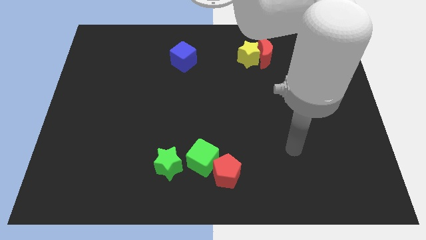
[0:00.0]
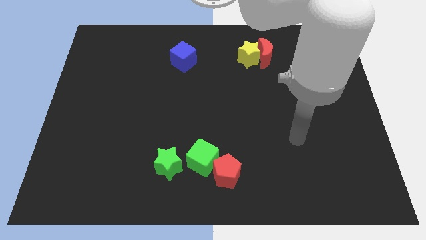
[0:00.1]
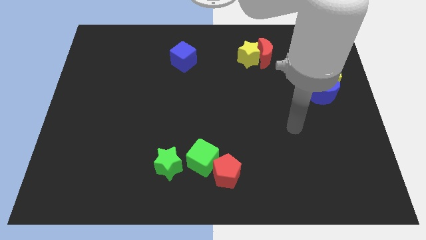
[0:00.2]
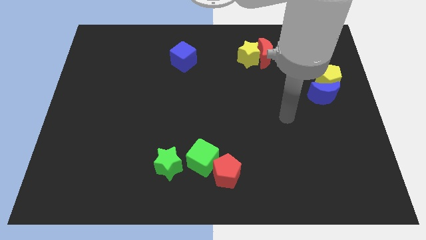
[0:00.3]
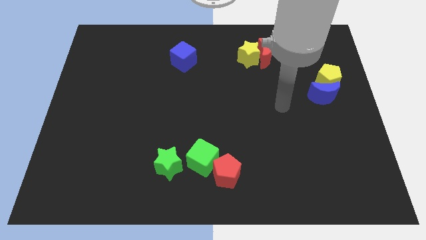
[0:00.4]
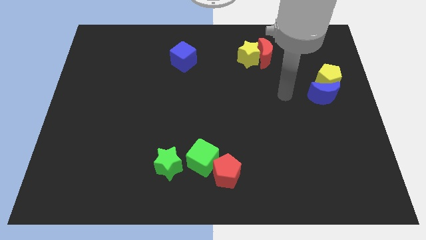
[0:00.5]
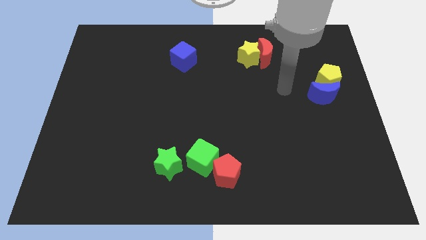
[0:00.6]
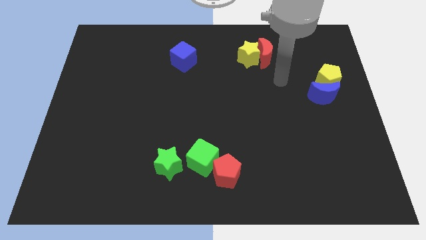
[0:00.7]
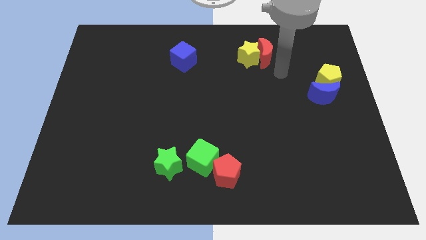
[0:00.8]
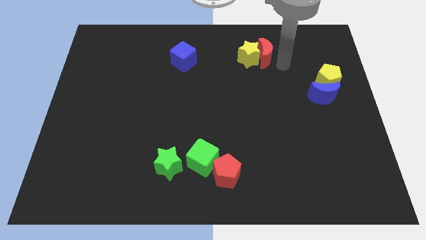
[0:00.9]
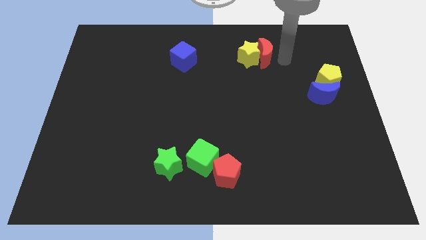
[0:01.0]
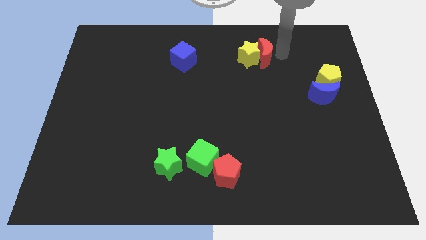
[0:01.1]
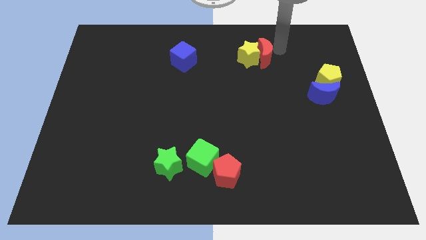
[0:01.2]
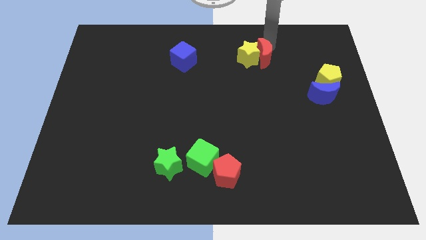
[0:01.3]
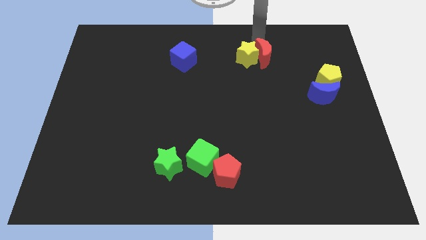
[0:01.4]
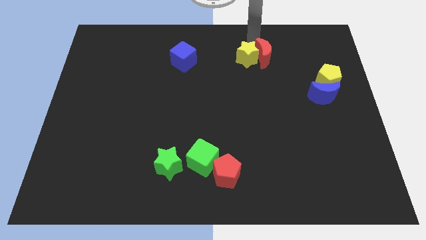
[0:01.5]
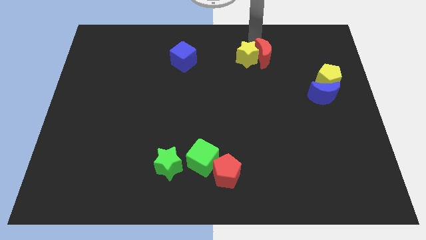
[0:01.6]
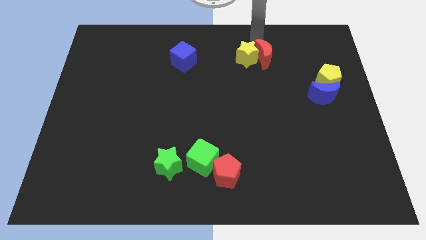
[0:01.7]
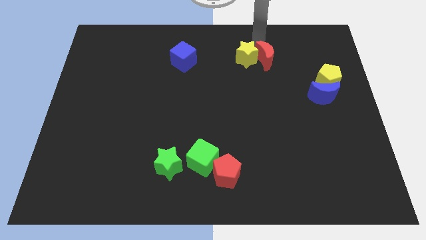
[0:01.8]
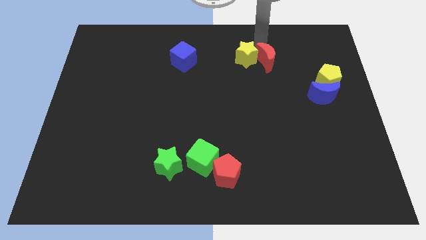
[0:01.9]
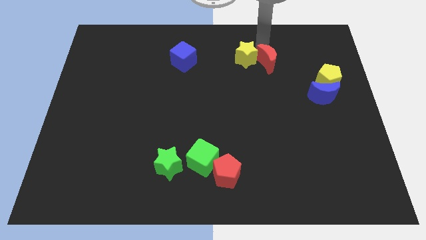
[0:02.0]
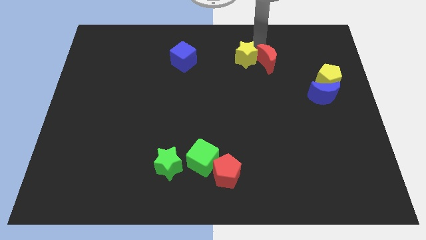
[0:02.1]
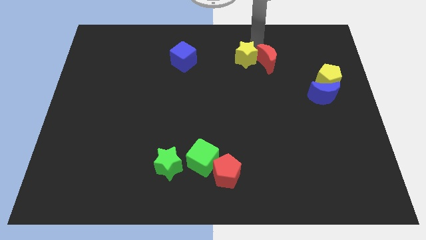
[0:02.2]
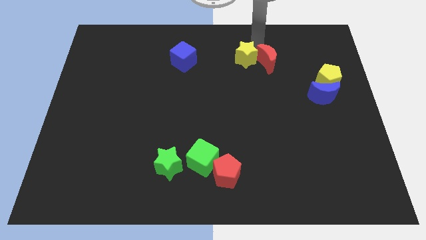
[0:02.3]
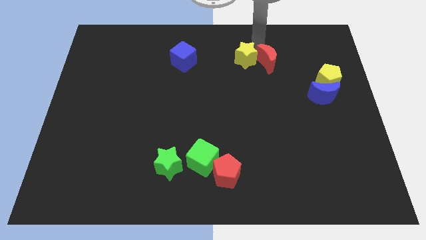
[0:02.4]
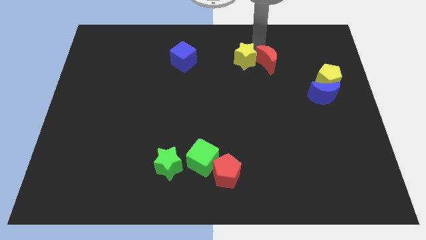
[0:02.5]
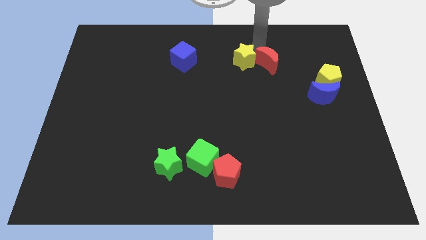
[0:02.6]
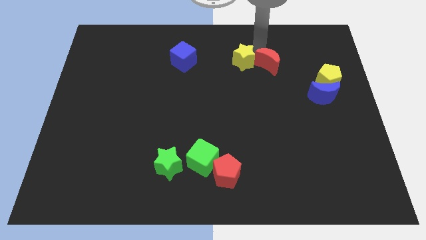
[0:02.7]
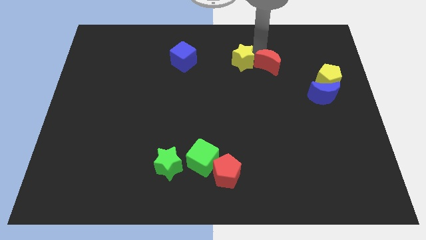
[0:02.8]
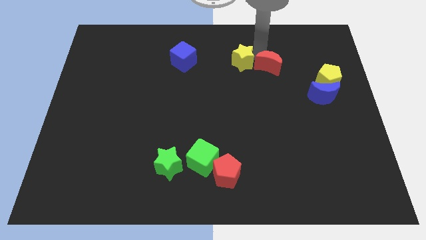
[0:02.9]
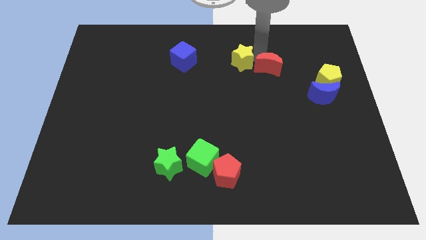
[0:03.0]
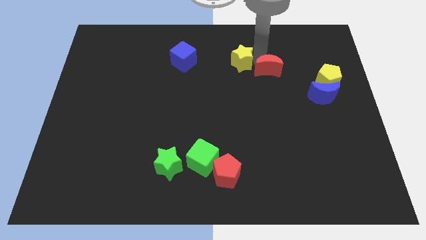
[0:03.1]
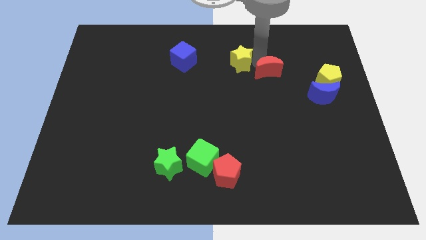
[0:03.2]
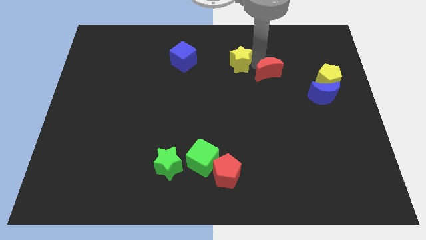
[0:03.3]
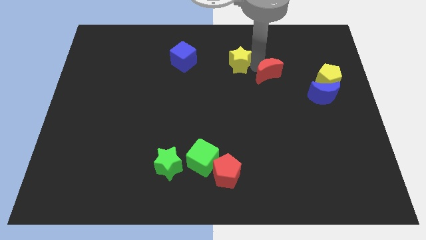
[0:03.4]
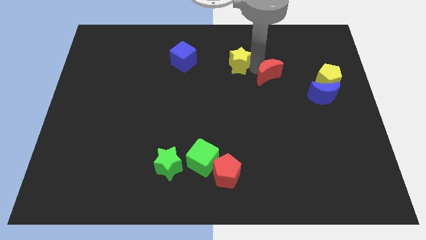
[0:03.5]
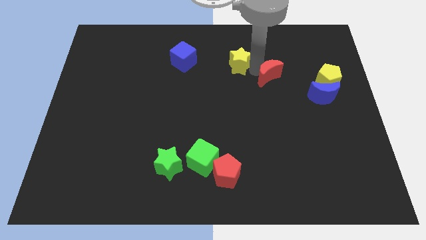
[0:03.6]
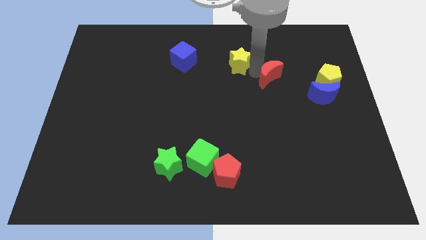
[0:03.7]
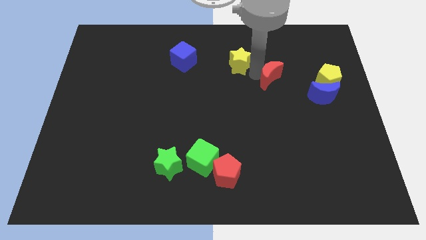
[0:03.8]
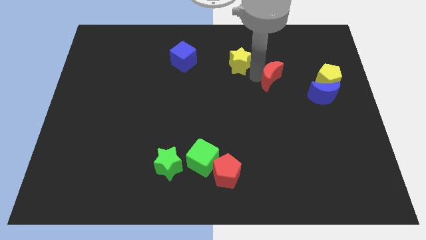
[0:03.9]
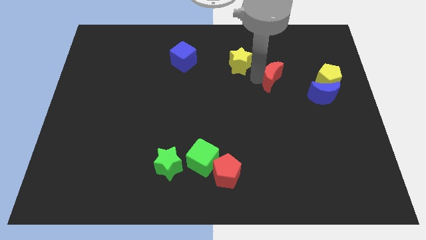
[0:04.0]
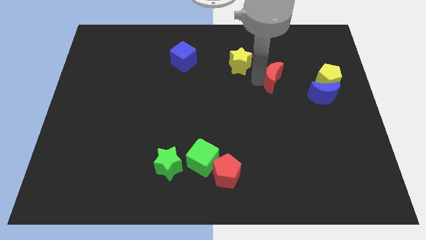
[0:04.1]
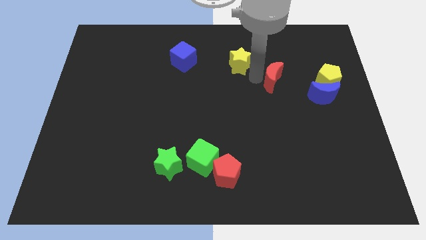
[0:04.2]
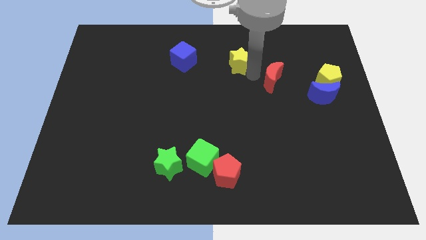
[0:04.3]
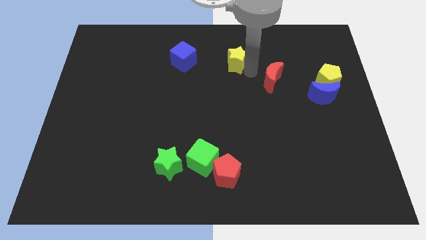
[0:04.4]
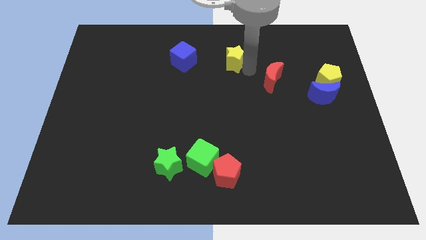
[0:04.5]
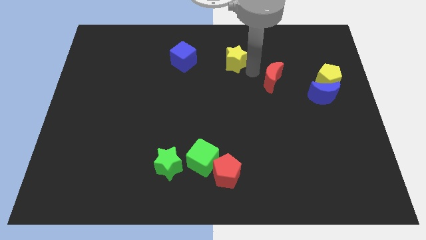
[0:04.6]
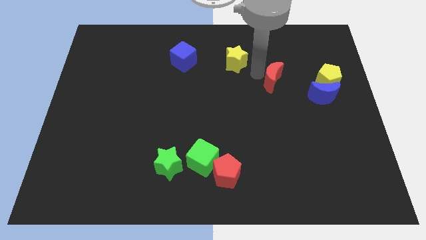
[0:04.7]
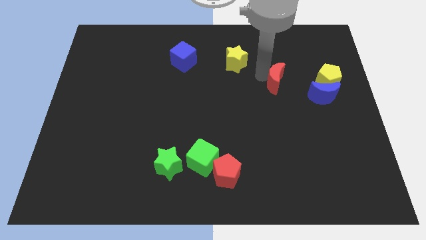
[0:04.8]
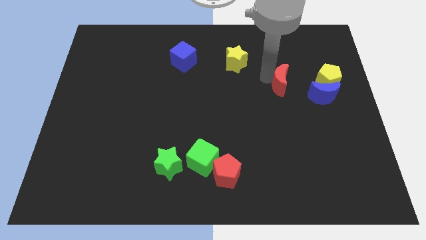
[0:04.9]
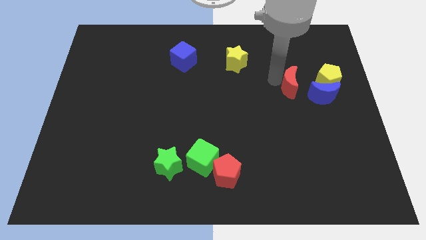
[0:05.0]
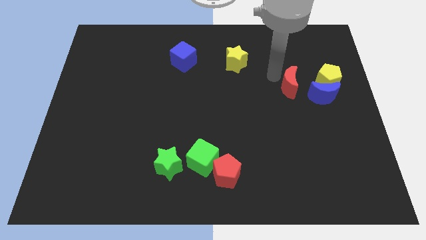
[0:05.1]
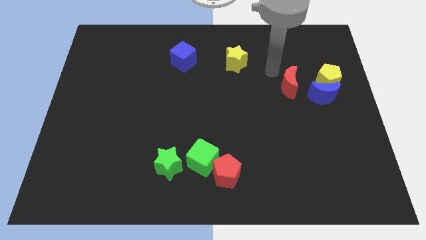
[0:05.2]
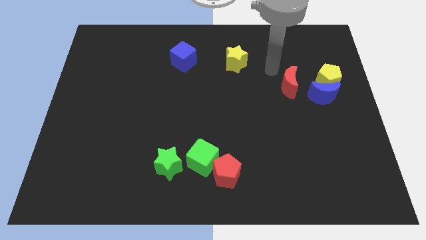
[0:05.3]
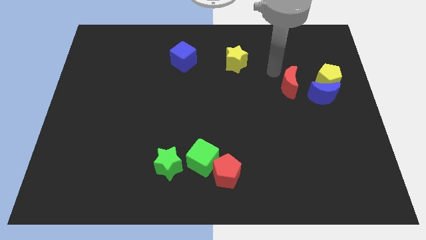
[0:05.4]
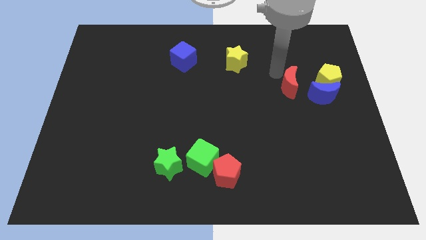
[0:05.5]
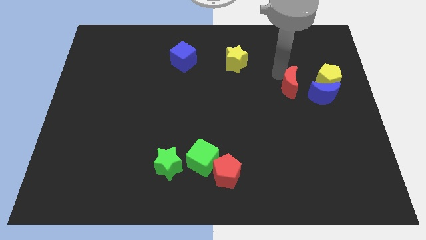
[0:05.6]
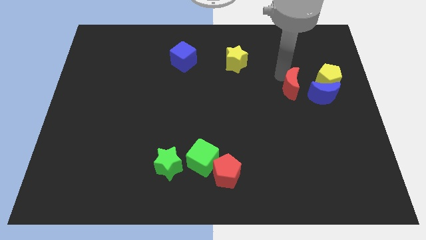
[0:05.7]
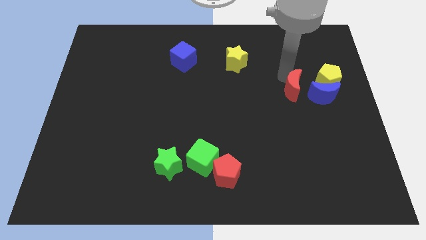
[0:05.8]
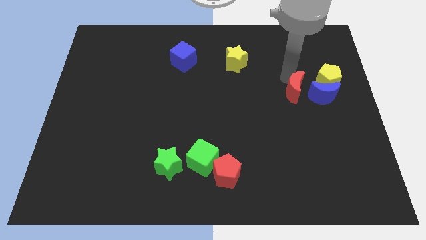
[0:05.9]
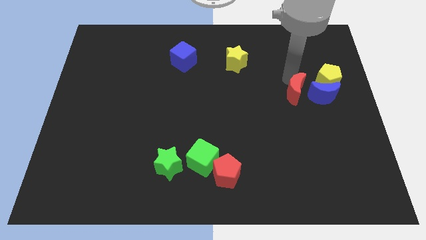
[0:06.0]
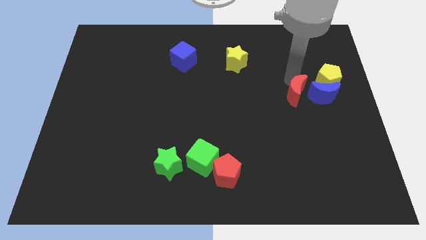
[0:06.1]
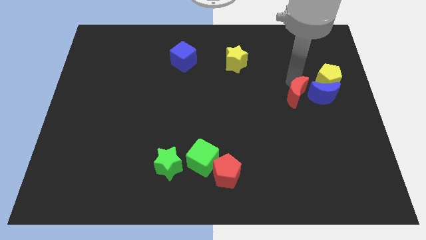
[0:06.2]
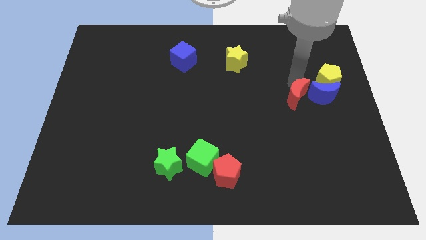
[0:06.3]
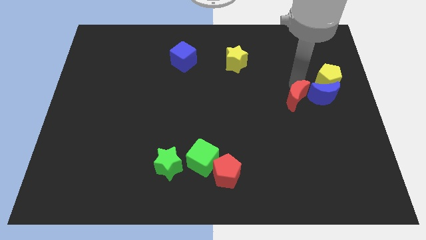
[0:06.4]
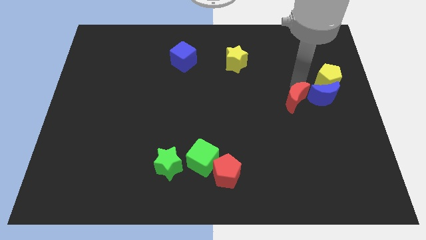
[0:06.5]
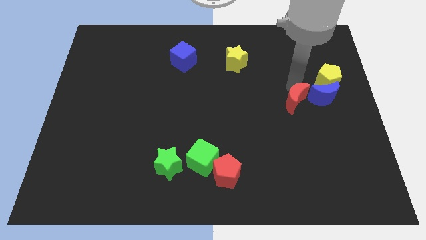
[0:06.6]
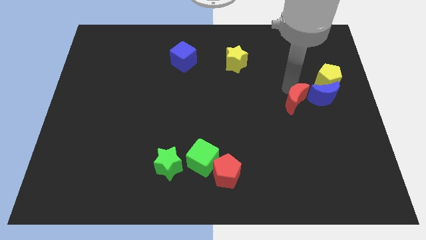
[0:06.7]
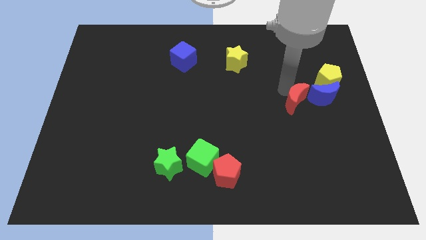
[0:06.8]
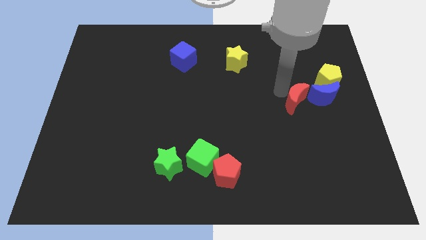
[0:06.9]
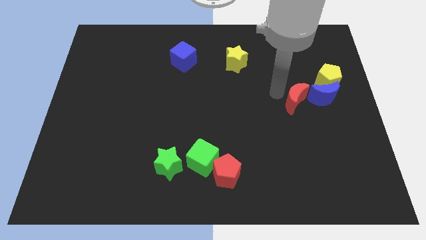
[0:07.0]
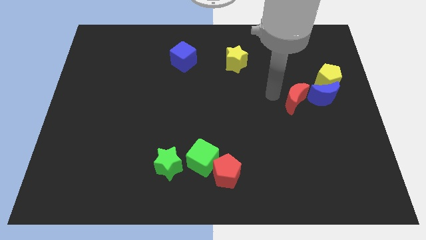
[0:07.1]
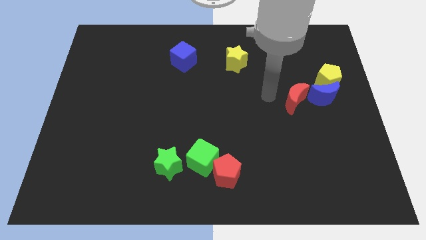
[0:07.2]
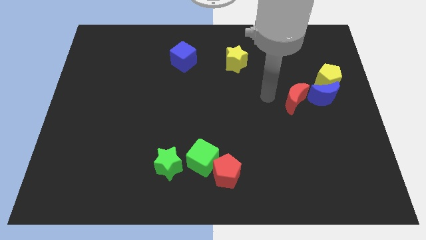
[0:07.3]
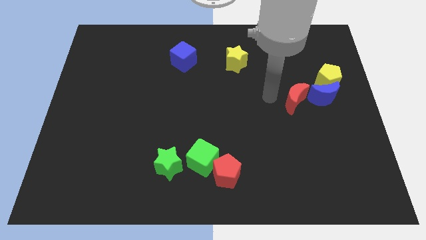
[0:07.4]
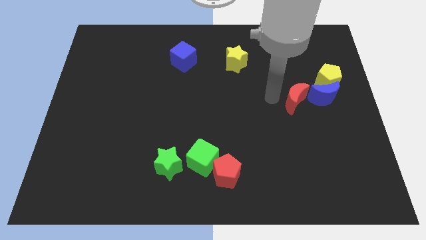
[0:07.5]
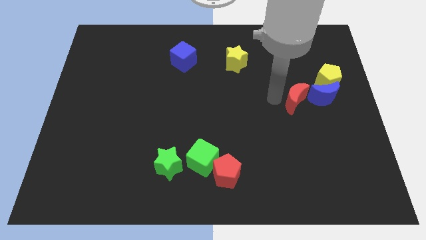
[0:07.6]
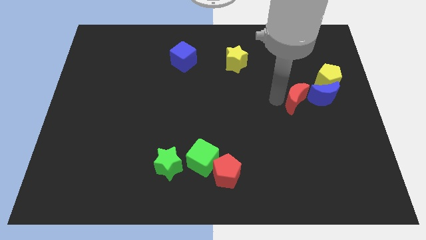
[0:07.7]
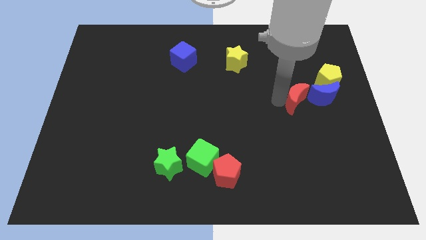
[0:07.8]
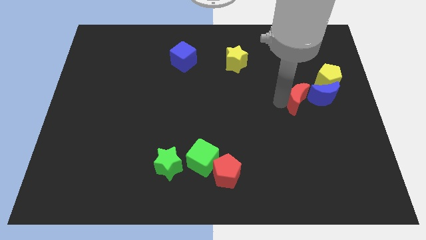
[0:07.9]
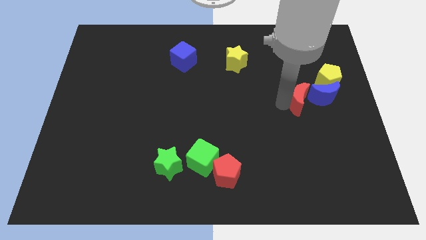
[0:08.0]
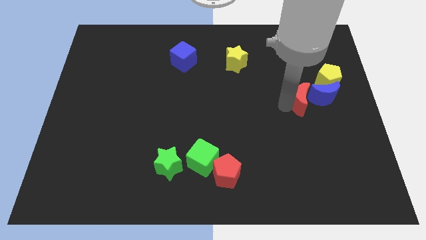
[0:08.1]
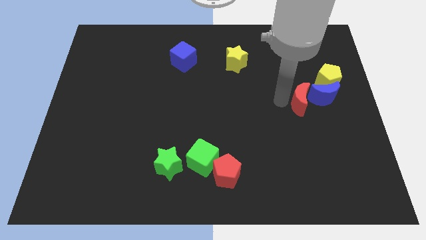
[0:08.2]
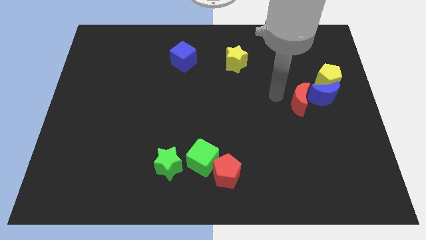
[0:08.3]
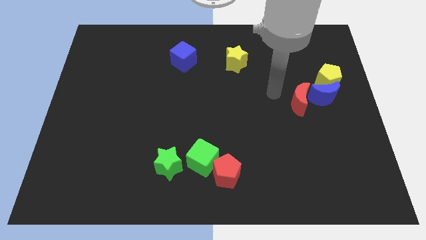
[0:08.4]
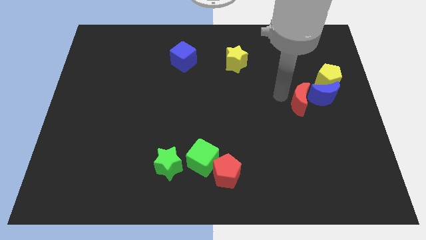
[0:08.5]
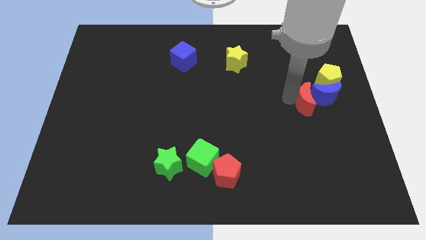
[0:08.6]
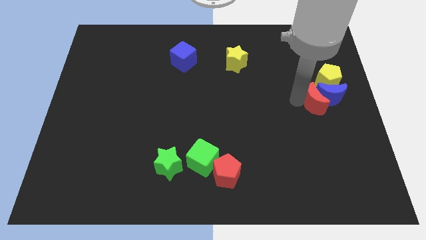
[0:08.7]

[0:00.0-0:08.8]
slide the red moon to the bottom of the yellow pentagon
